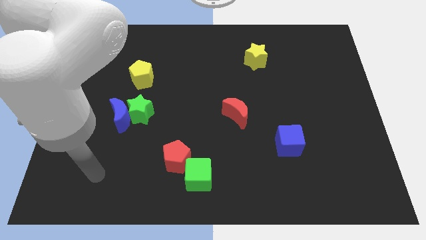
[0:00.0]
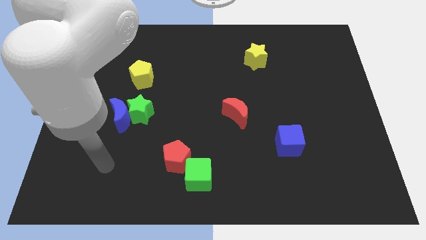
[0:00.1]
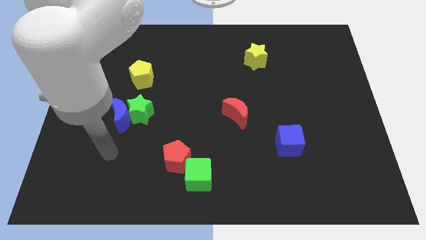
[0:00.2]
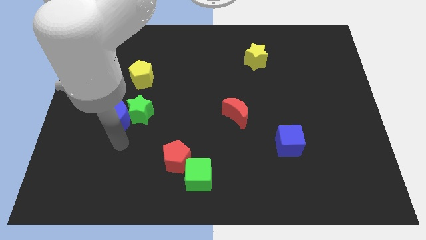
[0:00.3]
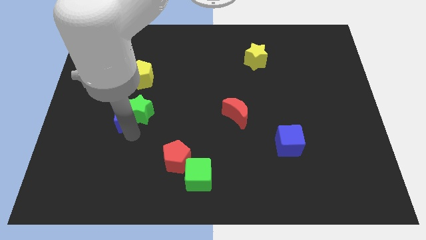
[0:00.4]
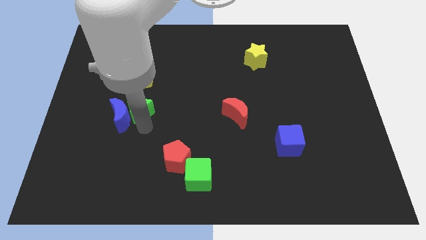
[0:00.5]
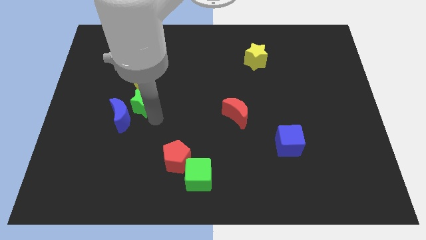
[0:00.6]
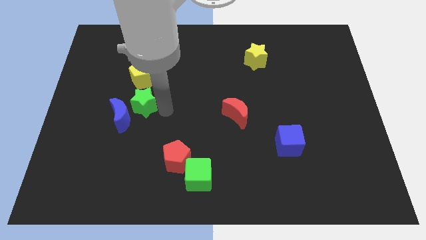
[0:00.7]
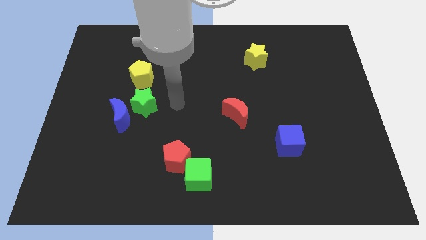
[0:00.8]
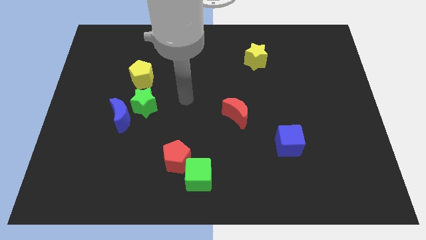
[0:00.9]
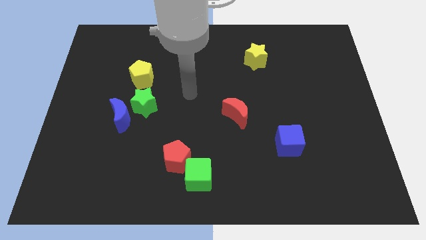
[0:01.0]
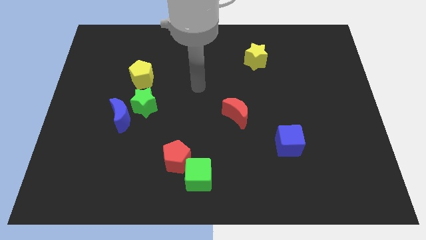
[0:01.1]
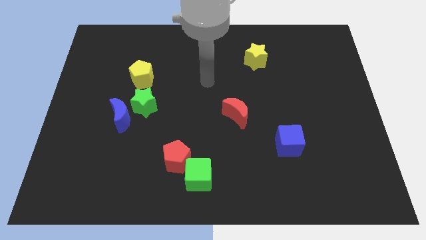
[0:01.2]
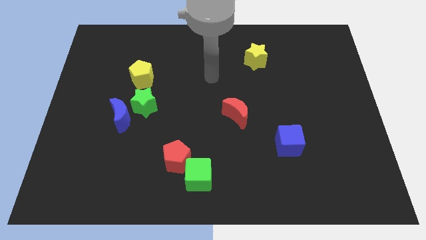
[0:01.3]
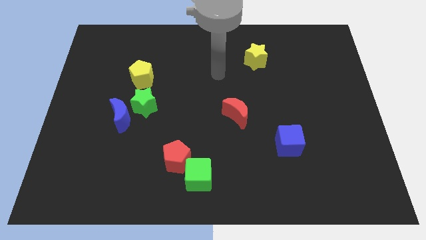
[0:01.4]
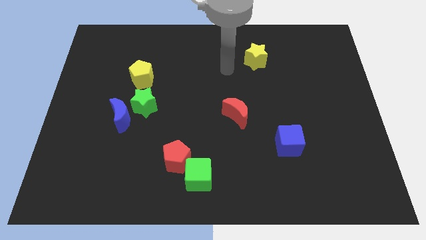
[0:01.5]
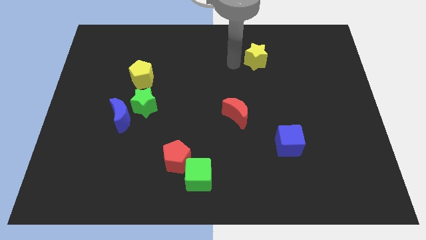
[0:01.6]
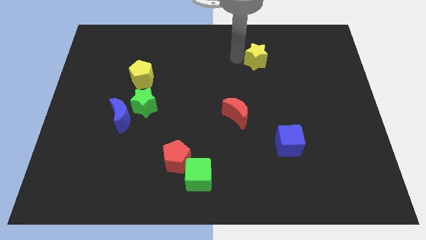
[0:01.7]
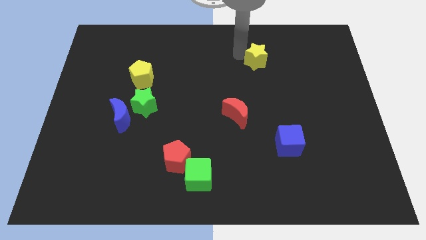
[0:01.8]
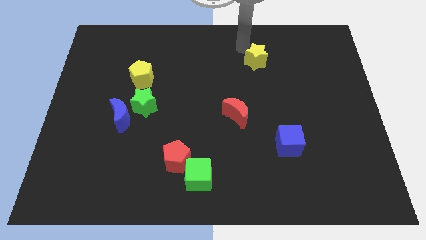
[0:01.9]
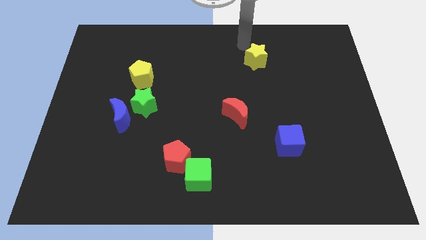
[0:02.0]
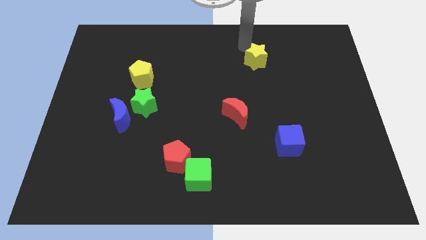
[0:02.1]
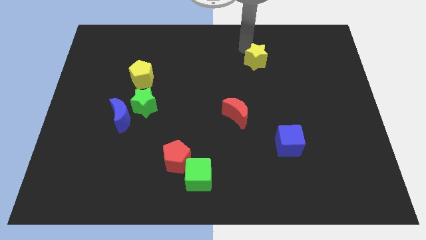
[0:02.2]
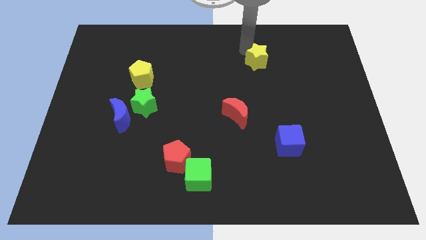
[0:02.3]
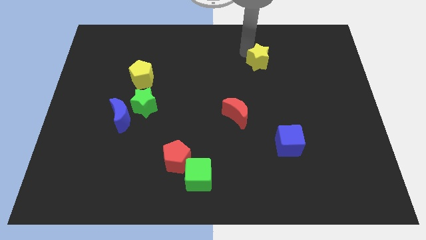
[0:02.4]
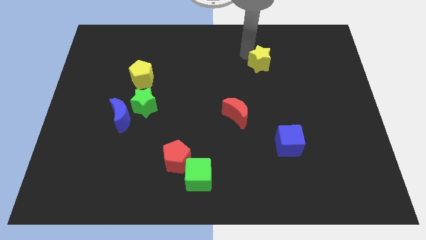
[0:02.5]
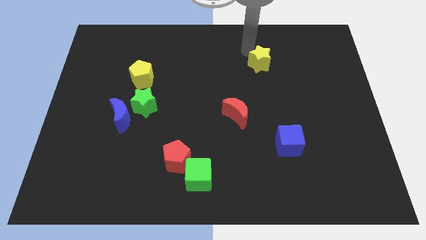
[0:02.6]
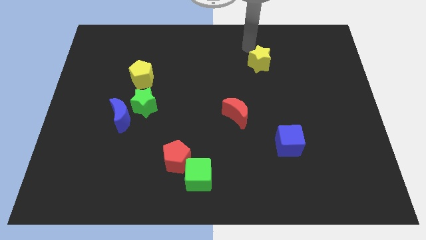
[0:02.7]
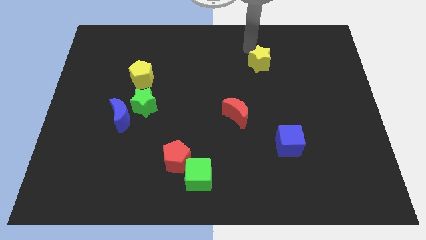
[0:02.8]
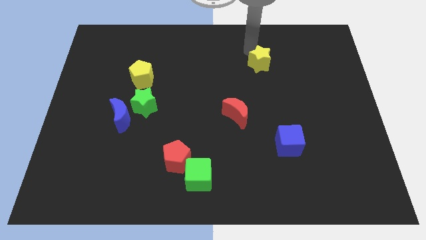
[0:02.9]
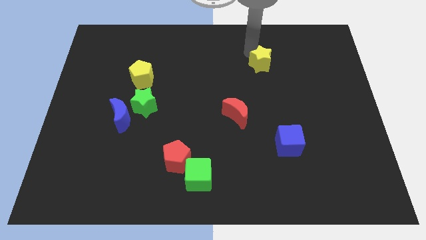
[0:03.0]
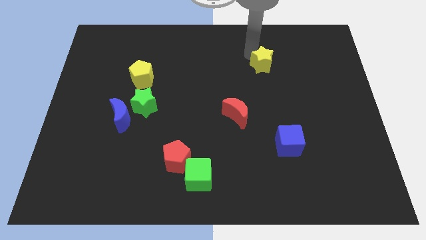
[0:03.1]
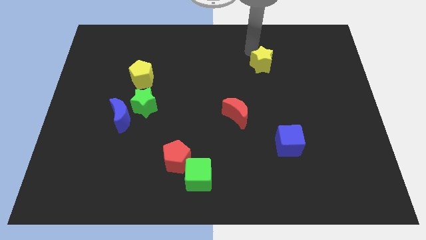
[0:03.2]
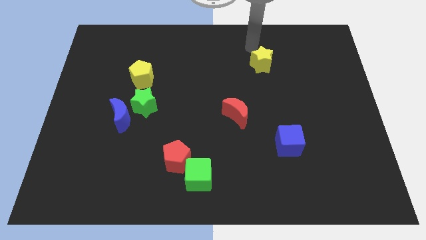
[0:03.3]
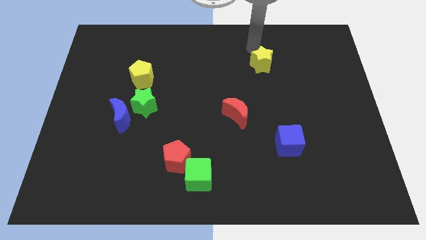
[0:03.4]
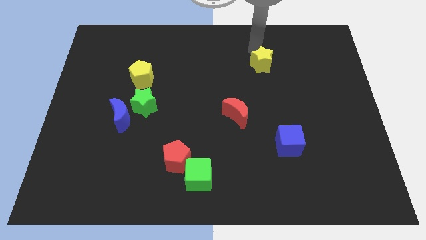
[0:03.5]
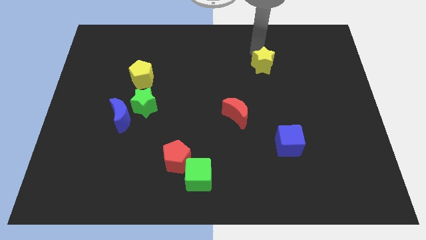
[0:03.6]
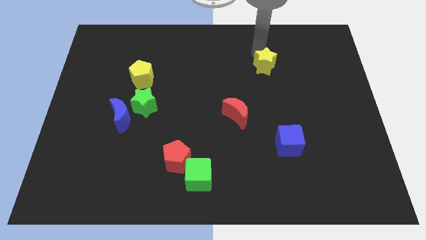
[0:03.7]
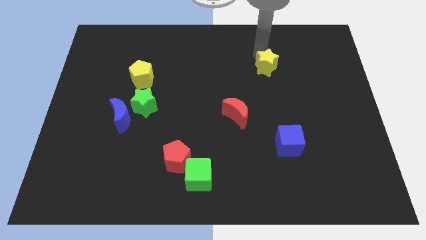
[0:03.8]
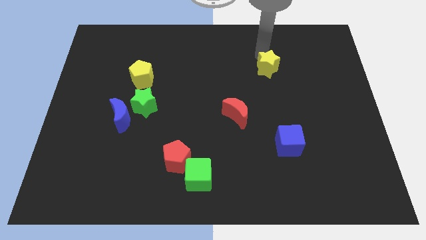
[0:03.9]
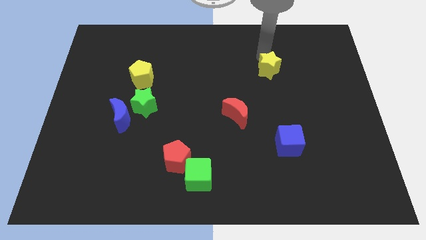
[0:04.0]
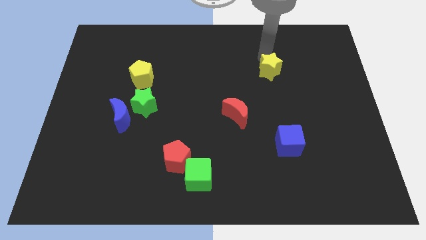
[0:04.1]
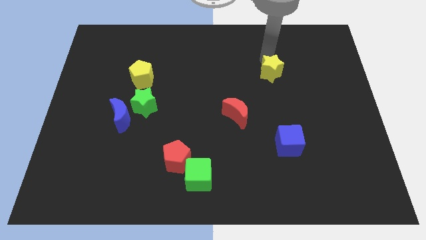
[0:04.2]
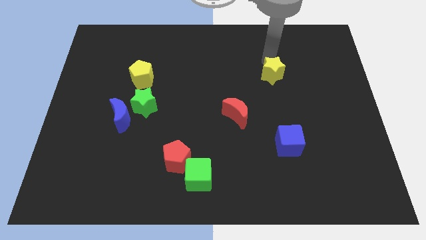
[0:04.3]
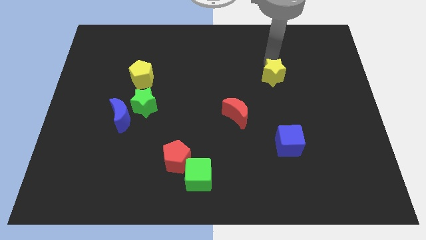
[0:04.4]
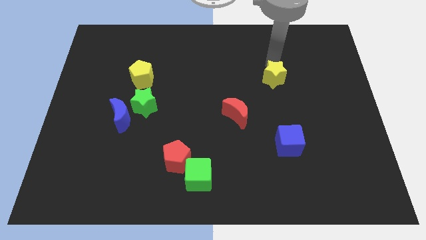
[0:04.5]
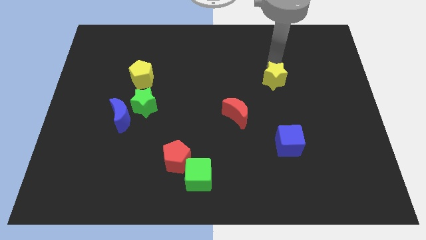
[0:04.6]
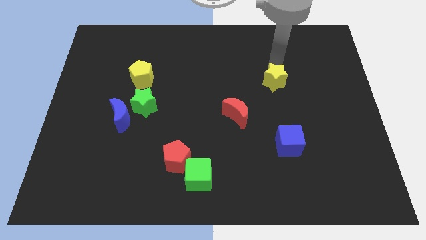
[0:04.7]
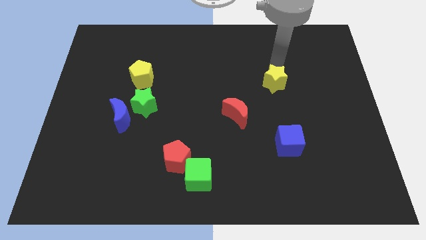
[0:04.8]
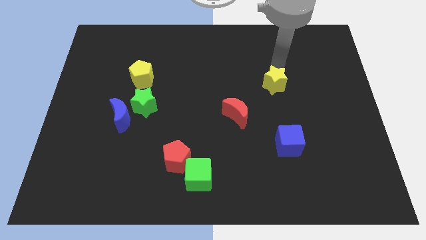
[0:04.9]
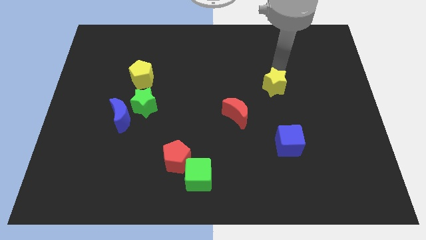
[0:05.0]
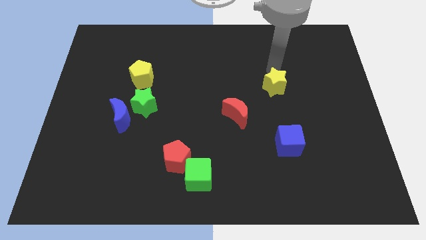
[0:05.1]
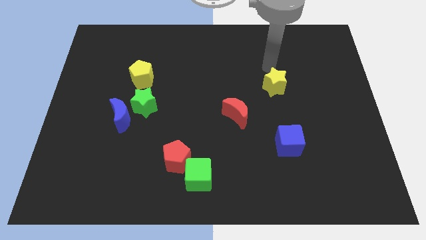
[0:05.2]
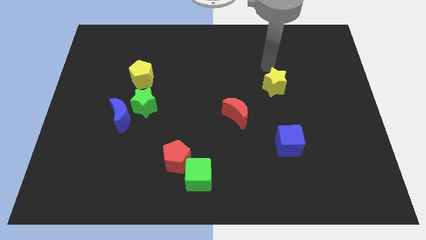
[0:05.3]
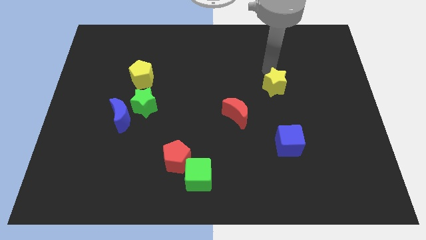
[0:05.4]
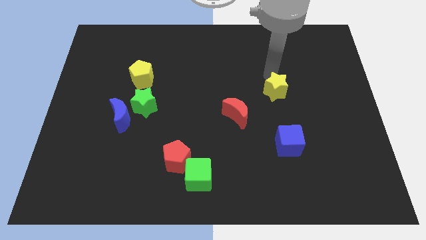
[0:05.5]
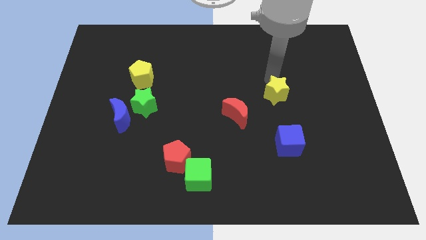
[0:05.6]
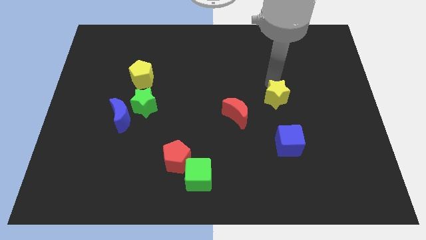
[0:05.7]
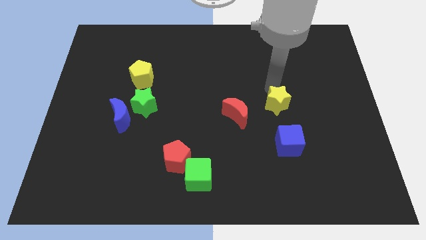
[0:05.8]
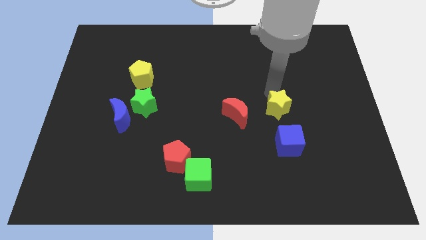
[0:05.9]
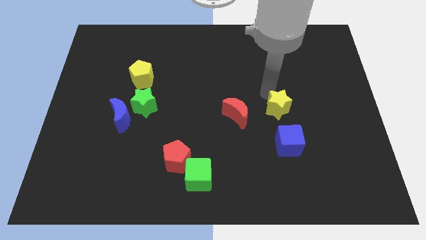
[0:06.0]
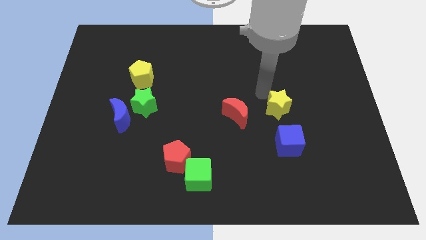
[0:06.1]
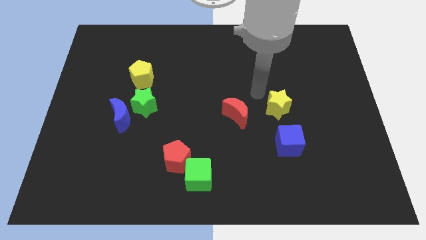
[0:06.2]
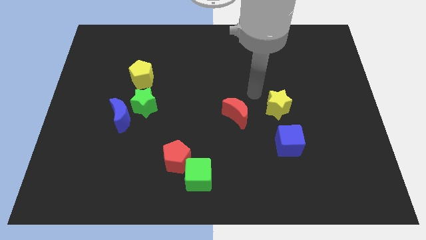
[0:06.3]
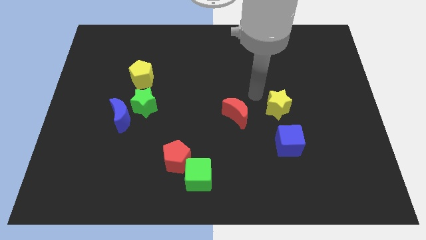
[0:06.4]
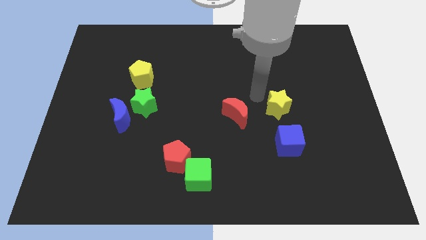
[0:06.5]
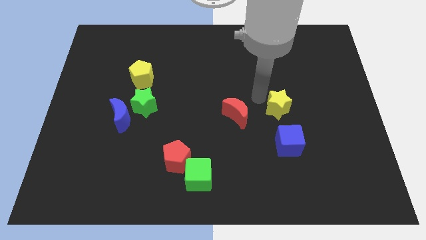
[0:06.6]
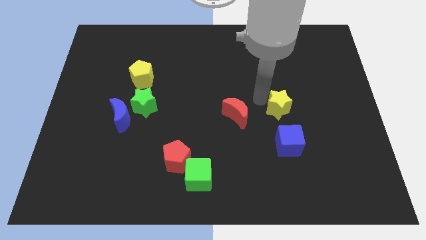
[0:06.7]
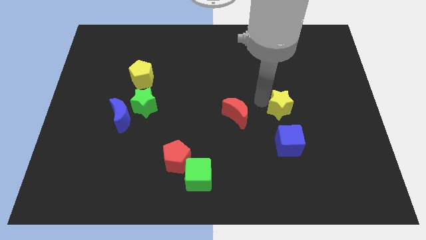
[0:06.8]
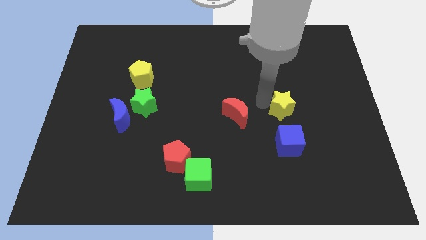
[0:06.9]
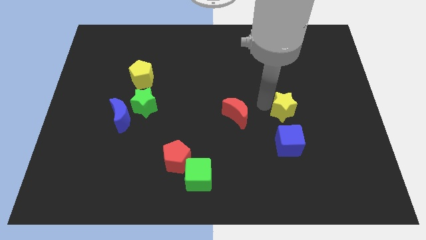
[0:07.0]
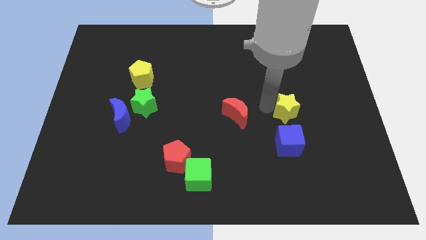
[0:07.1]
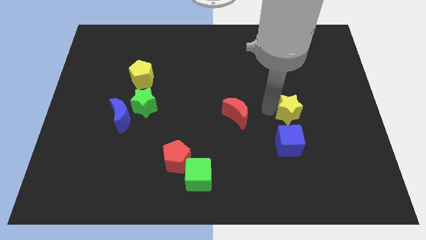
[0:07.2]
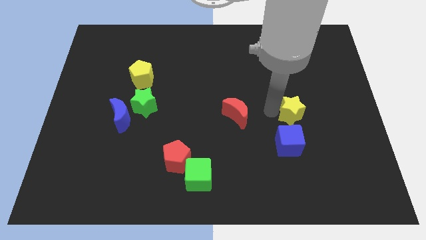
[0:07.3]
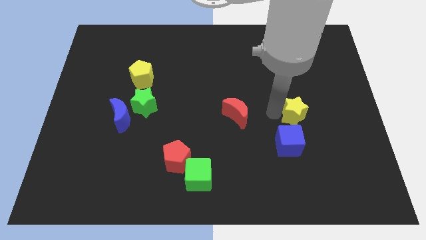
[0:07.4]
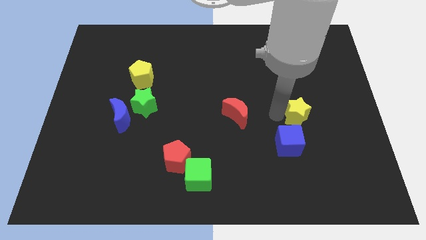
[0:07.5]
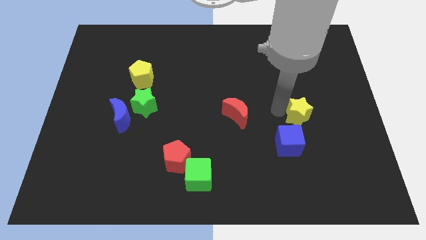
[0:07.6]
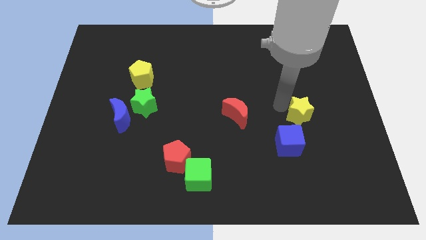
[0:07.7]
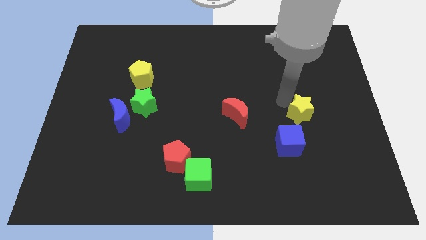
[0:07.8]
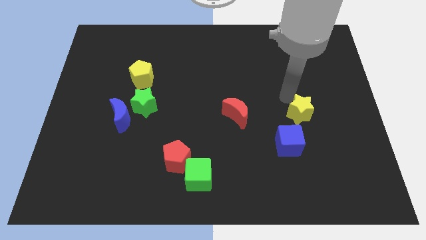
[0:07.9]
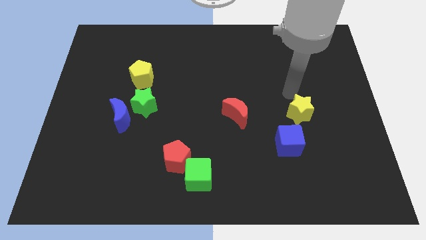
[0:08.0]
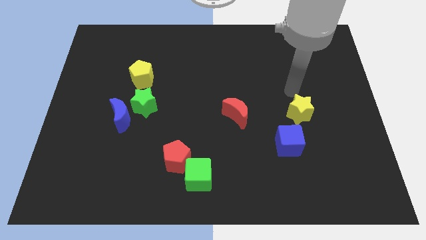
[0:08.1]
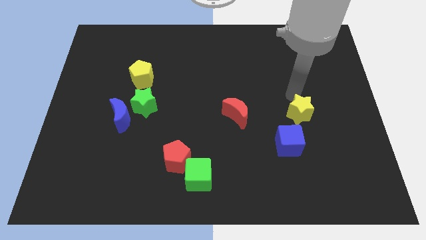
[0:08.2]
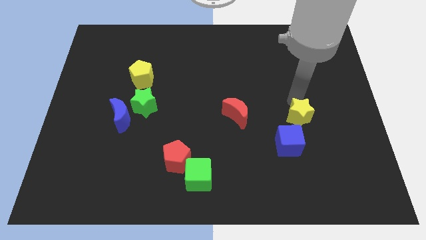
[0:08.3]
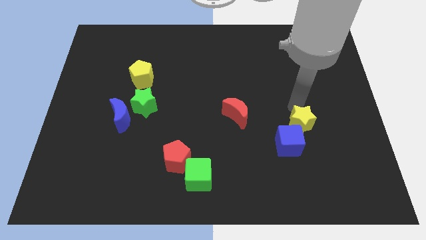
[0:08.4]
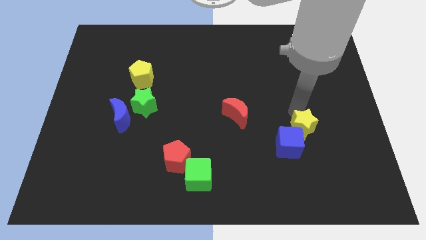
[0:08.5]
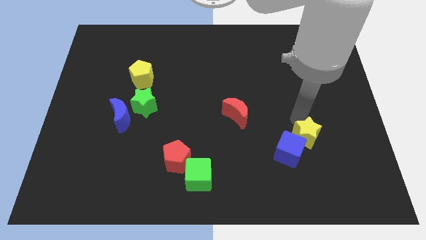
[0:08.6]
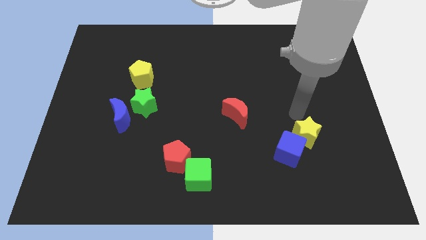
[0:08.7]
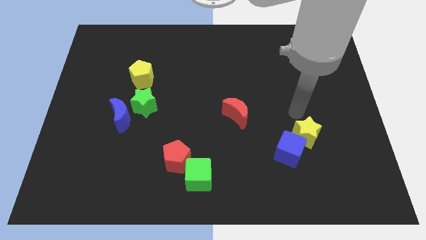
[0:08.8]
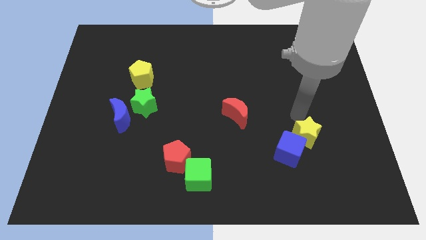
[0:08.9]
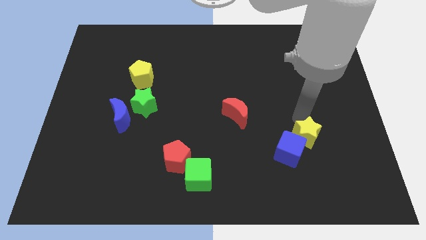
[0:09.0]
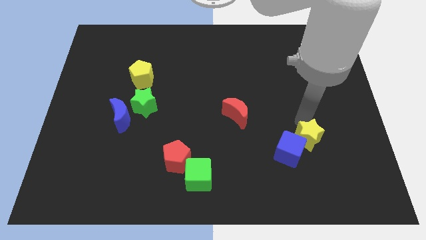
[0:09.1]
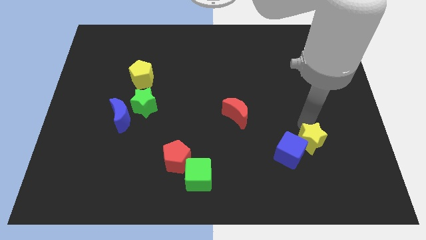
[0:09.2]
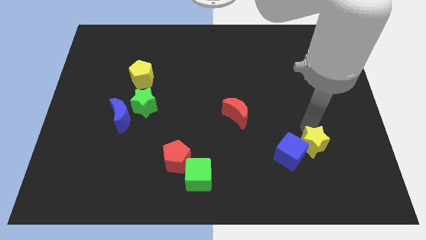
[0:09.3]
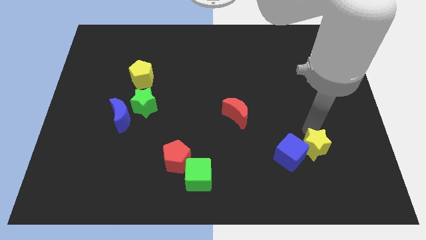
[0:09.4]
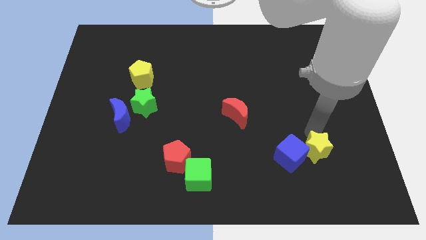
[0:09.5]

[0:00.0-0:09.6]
slide the yellow star to the bottom right of the blue cube
